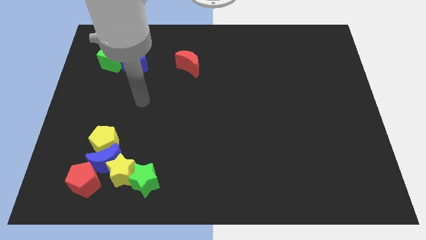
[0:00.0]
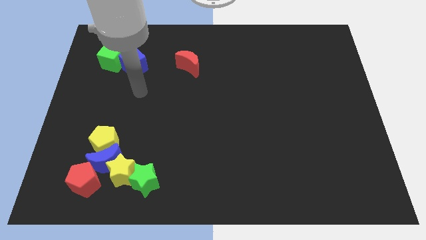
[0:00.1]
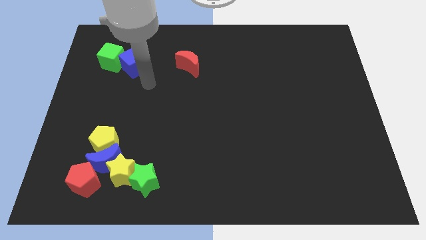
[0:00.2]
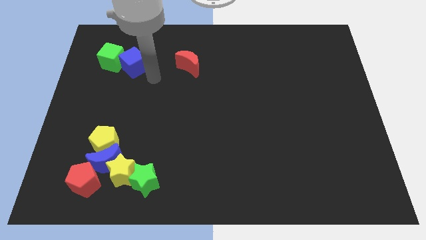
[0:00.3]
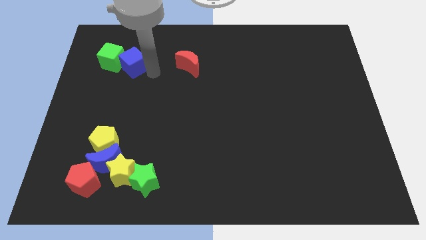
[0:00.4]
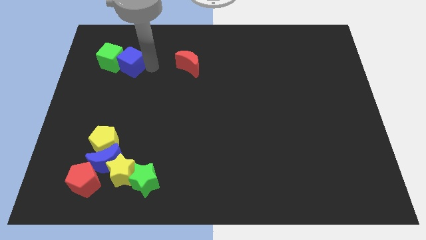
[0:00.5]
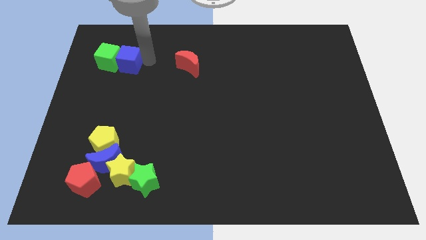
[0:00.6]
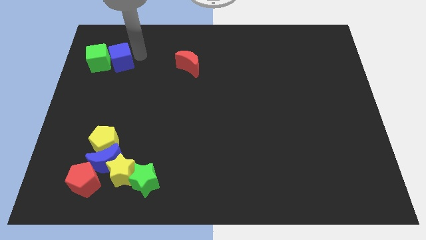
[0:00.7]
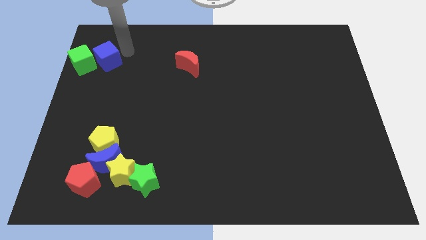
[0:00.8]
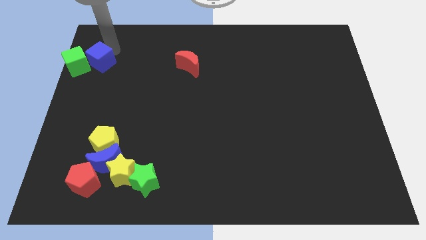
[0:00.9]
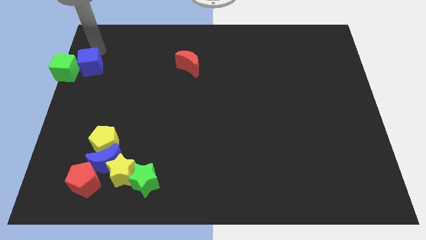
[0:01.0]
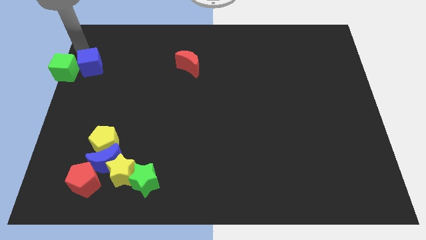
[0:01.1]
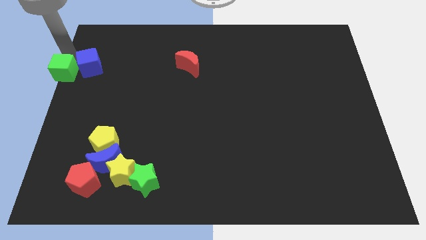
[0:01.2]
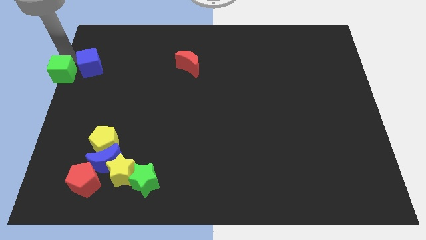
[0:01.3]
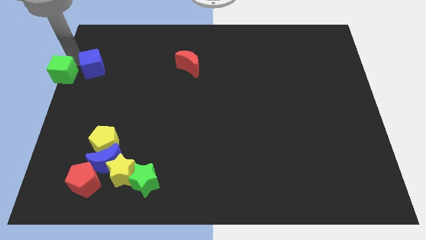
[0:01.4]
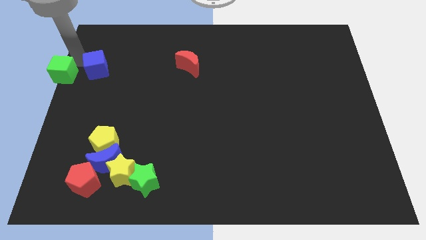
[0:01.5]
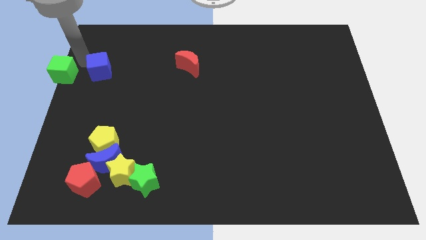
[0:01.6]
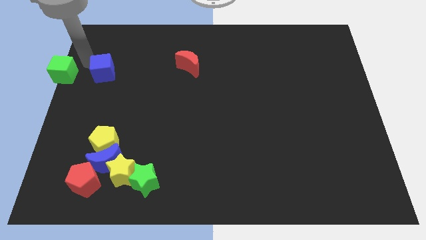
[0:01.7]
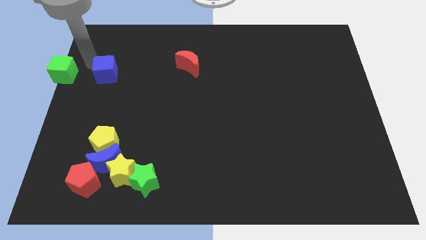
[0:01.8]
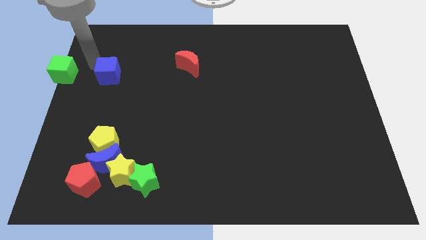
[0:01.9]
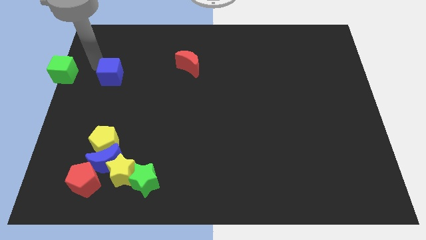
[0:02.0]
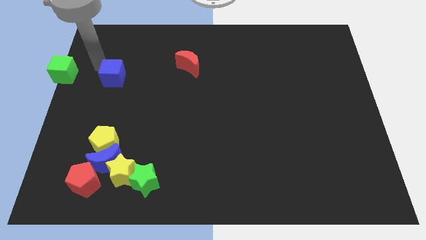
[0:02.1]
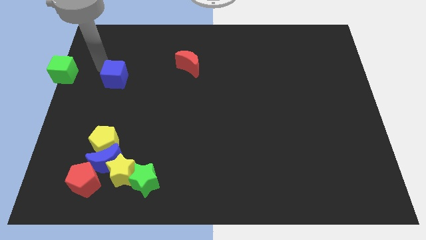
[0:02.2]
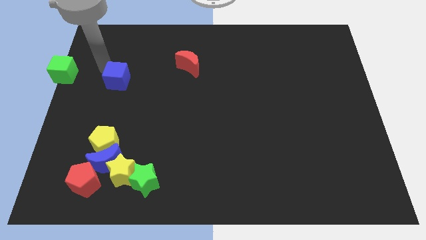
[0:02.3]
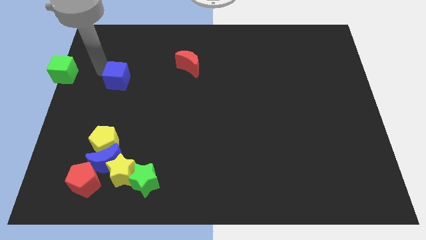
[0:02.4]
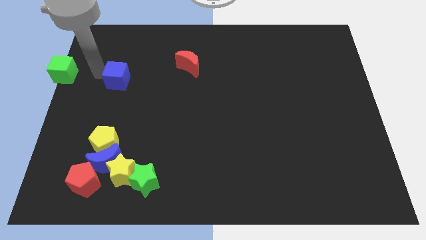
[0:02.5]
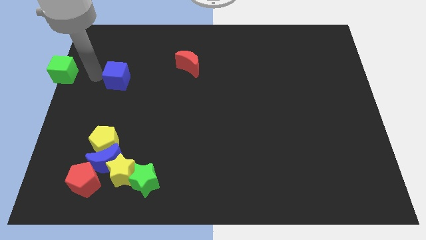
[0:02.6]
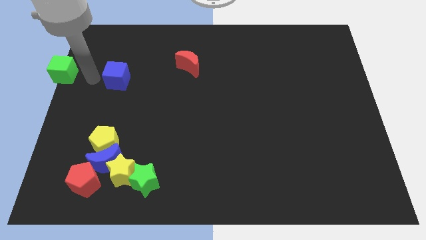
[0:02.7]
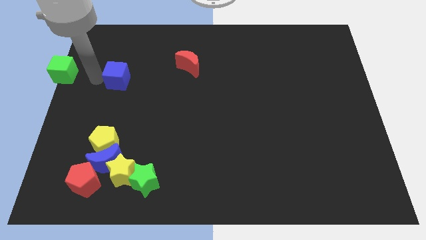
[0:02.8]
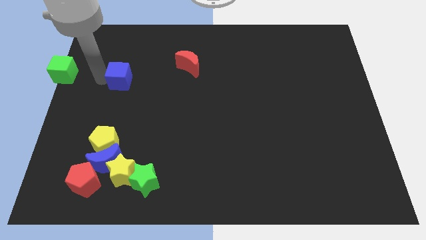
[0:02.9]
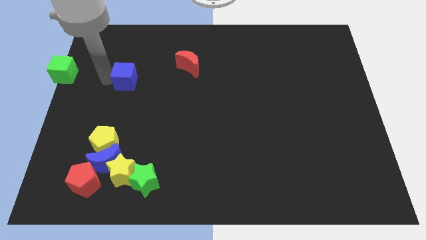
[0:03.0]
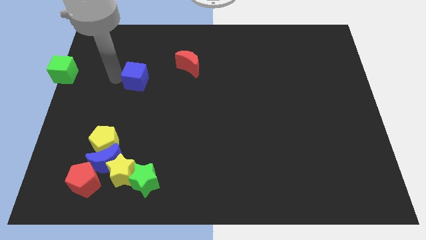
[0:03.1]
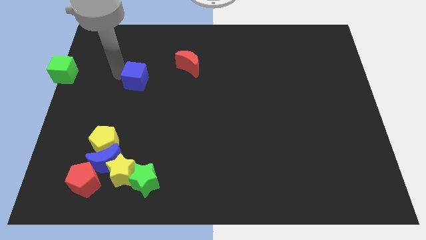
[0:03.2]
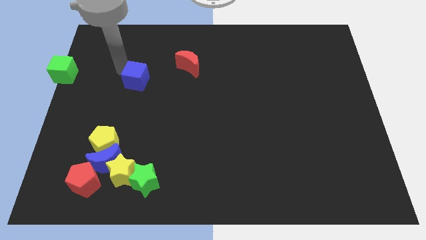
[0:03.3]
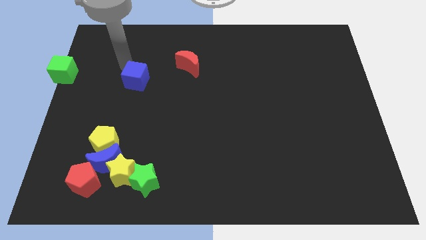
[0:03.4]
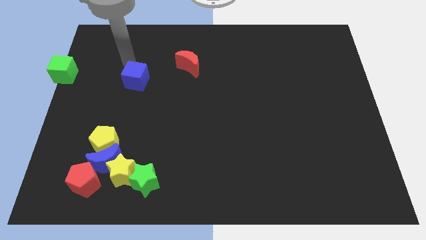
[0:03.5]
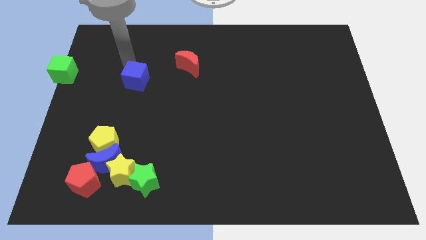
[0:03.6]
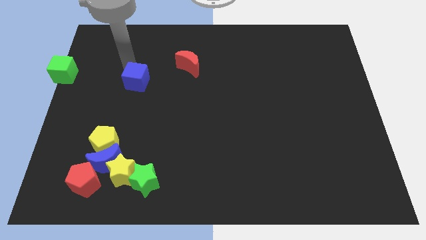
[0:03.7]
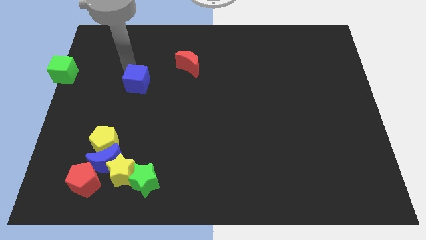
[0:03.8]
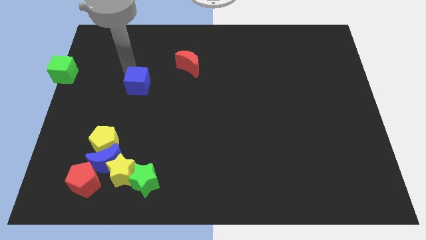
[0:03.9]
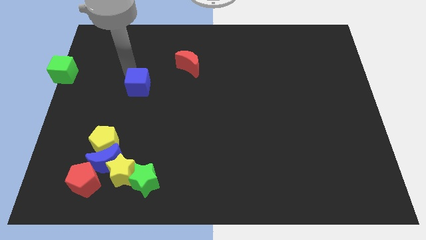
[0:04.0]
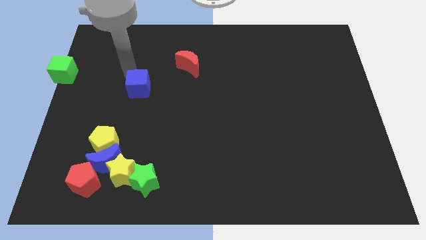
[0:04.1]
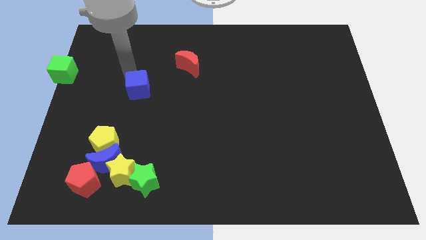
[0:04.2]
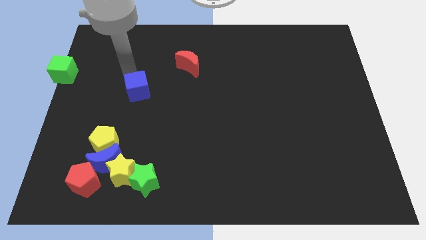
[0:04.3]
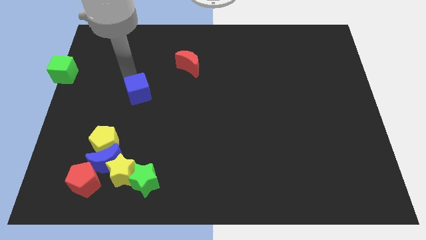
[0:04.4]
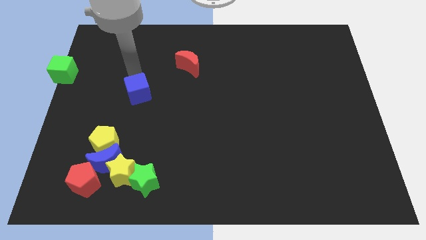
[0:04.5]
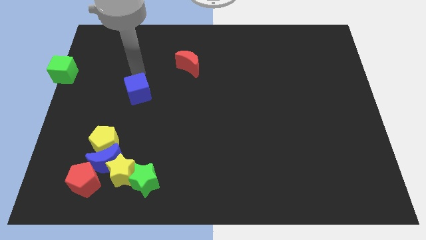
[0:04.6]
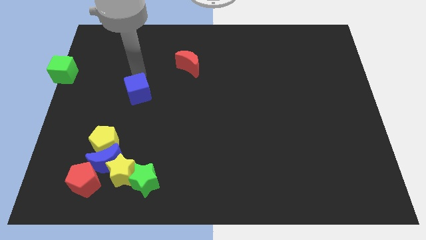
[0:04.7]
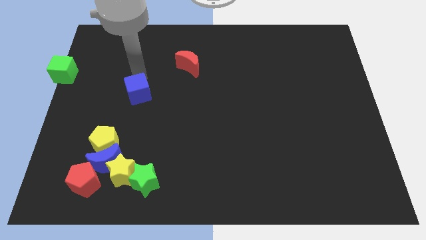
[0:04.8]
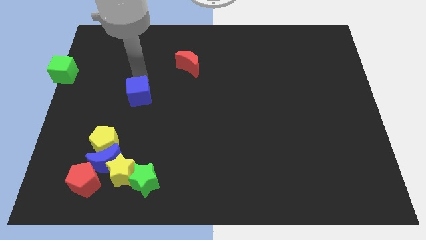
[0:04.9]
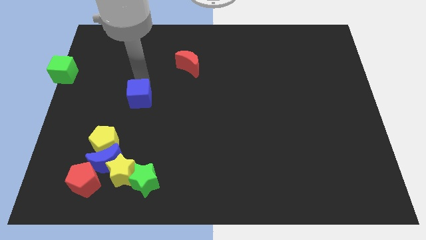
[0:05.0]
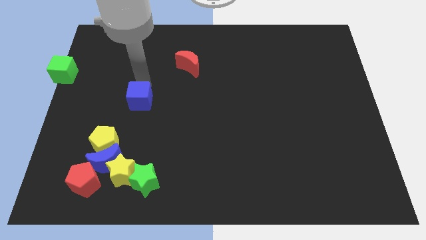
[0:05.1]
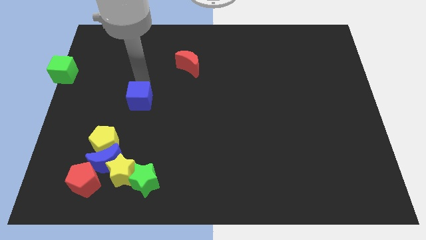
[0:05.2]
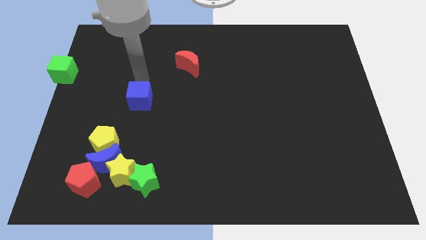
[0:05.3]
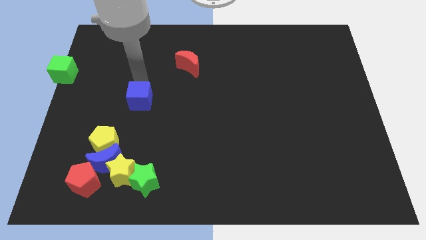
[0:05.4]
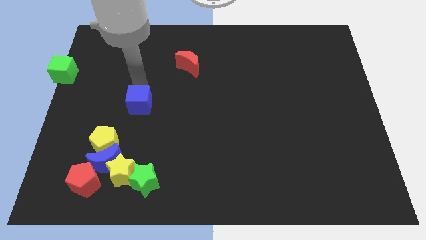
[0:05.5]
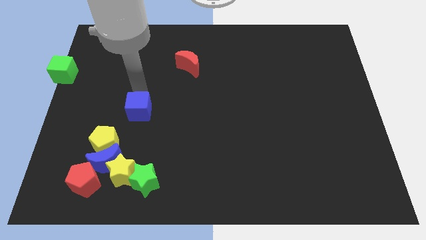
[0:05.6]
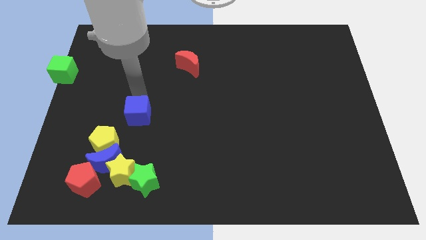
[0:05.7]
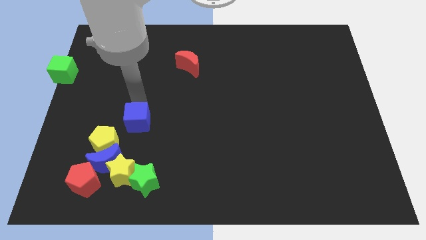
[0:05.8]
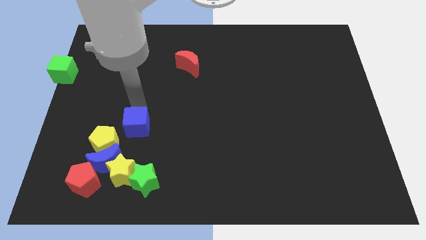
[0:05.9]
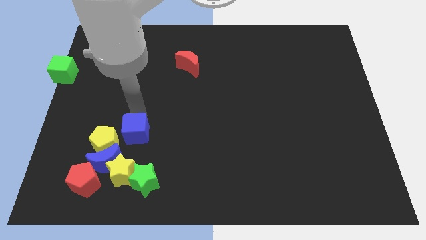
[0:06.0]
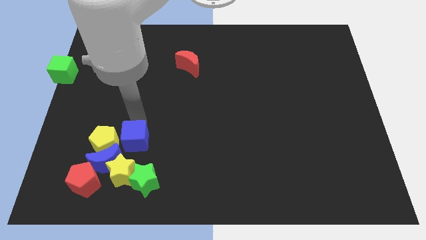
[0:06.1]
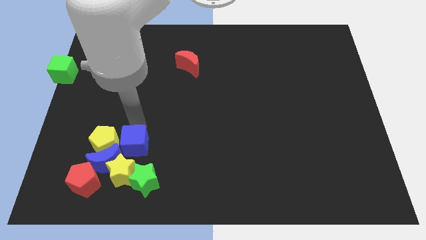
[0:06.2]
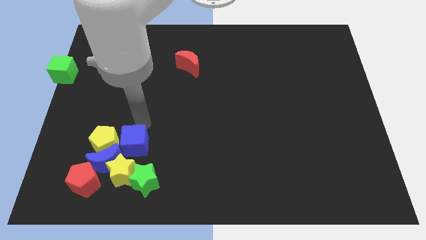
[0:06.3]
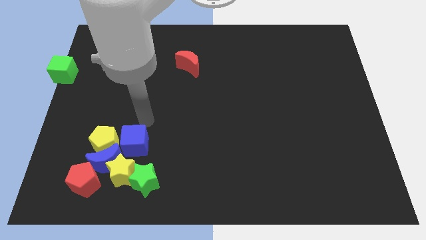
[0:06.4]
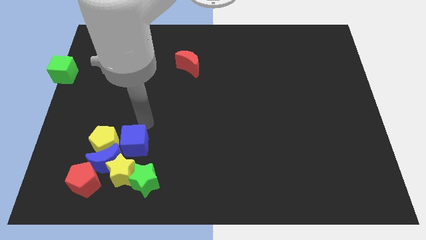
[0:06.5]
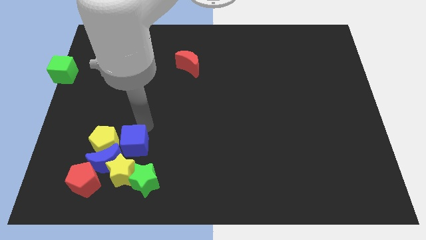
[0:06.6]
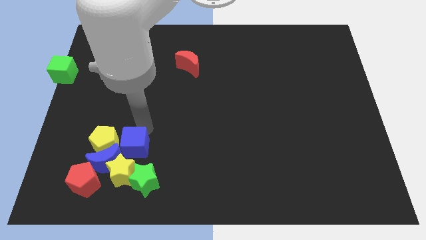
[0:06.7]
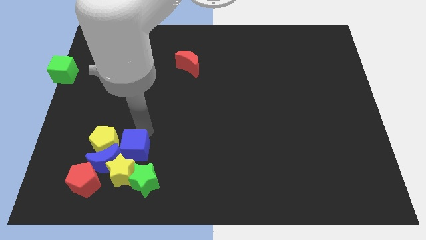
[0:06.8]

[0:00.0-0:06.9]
put the blue cube next to the yellow star

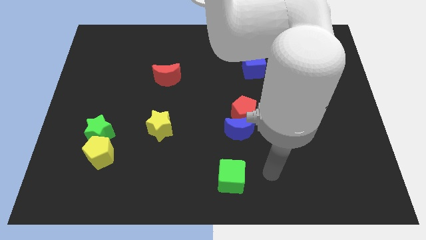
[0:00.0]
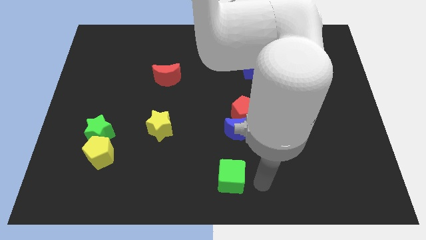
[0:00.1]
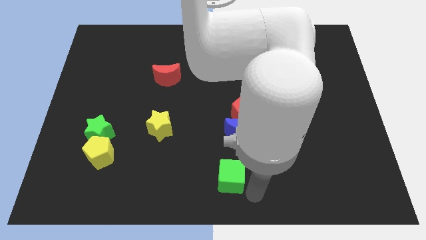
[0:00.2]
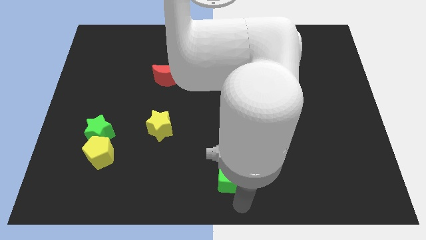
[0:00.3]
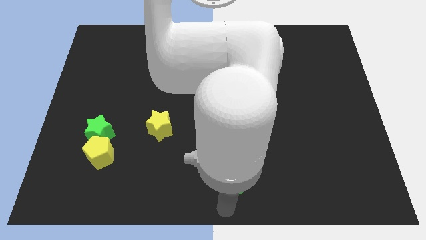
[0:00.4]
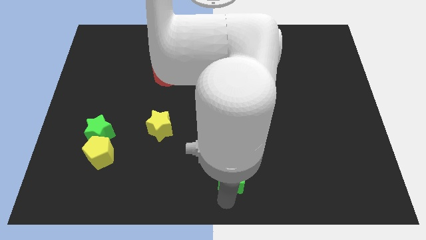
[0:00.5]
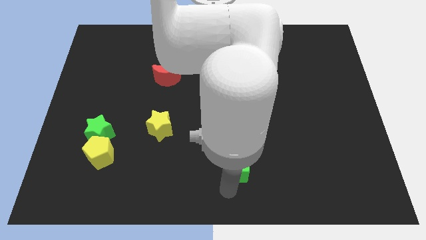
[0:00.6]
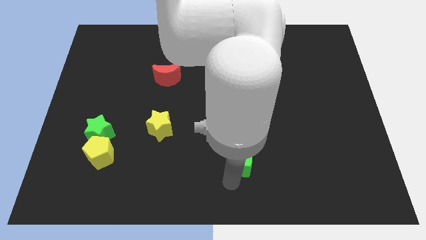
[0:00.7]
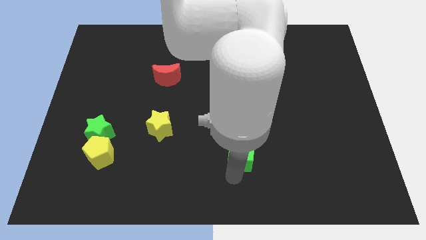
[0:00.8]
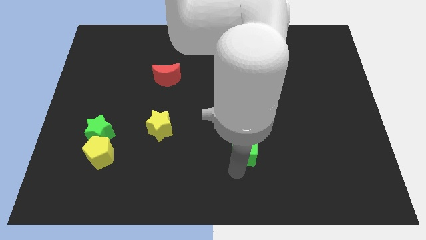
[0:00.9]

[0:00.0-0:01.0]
push the green cube towards the blue moon

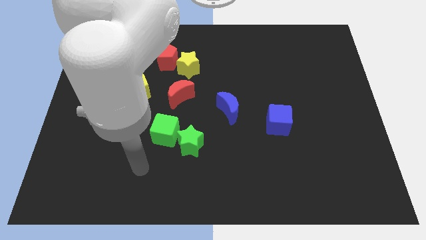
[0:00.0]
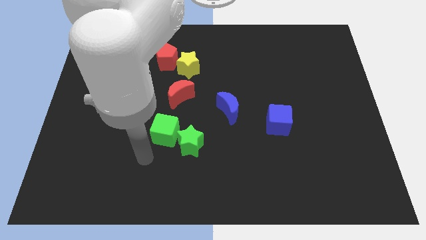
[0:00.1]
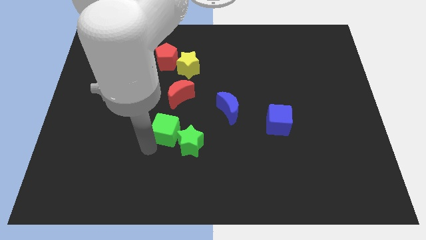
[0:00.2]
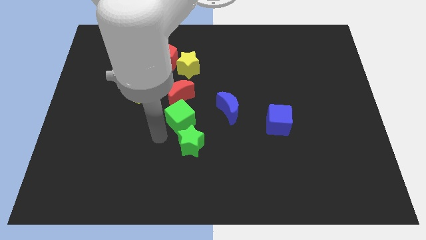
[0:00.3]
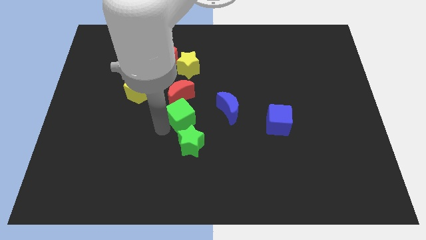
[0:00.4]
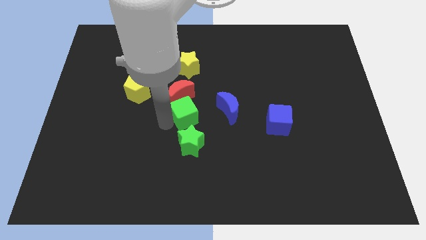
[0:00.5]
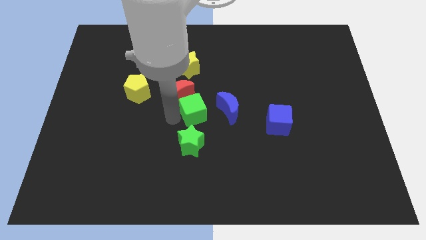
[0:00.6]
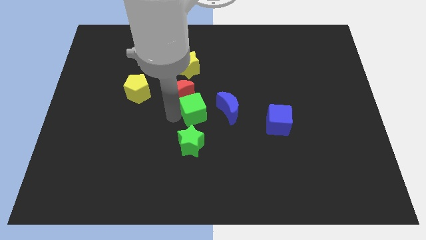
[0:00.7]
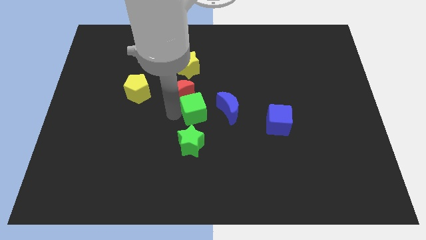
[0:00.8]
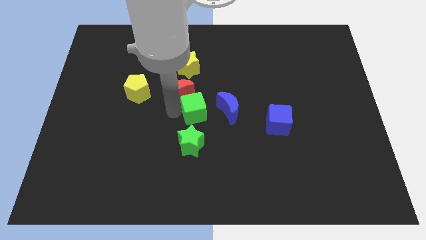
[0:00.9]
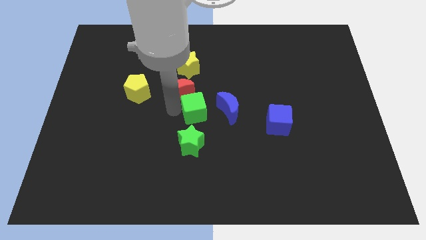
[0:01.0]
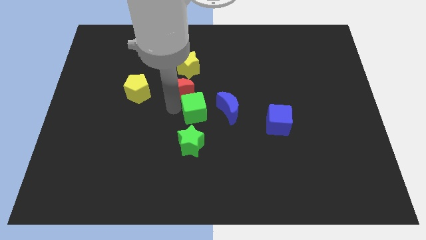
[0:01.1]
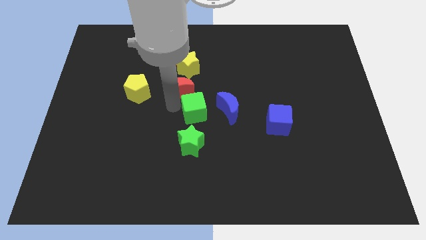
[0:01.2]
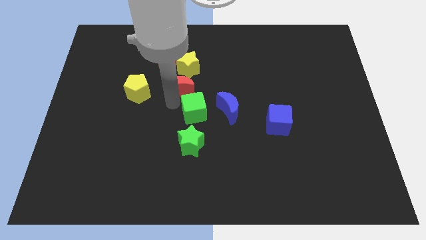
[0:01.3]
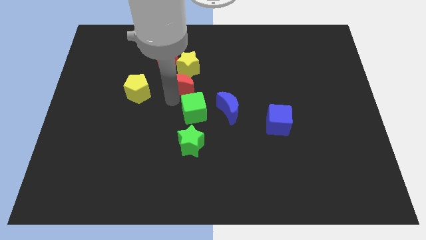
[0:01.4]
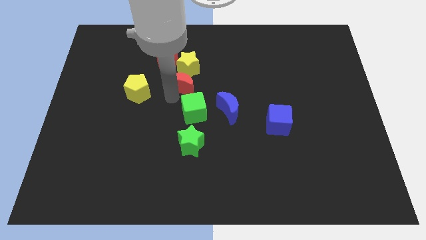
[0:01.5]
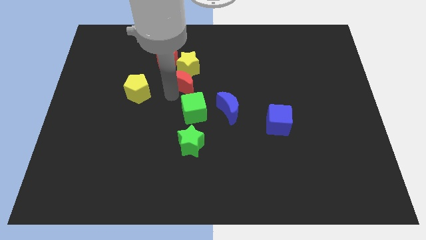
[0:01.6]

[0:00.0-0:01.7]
put the red moon next to the yellow star
